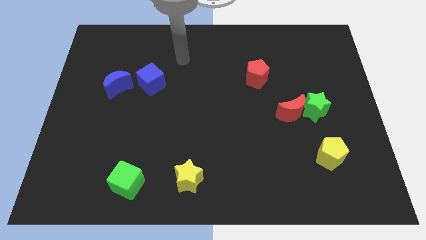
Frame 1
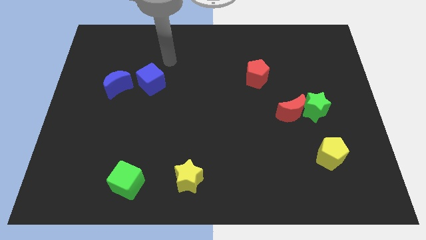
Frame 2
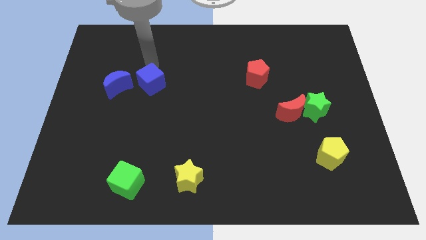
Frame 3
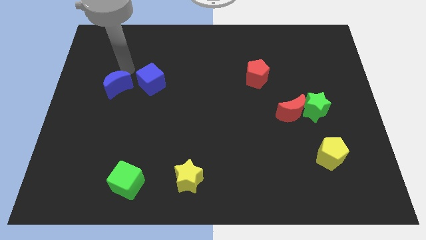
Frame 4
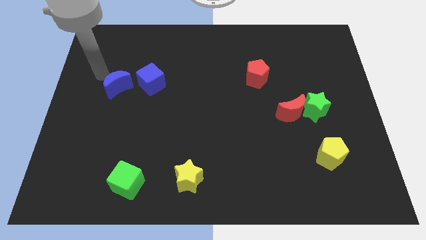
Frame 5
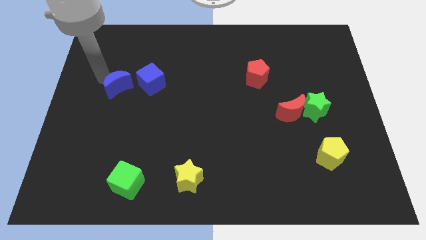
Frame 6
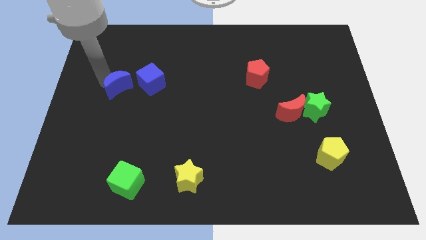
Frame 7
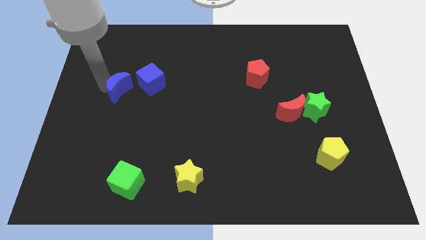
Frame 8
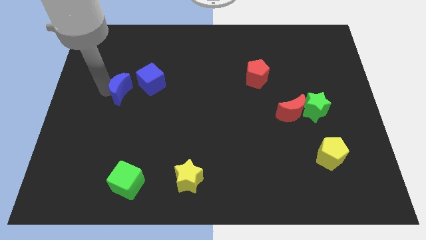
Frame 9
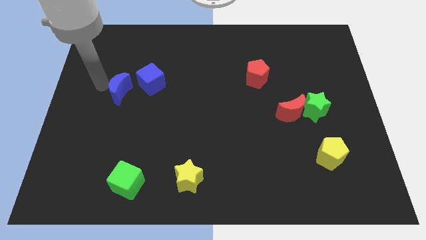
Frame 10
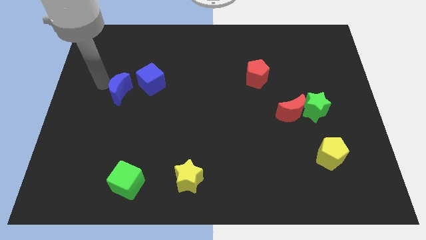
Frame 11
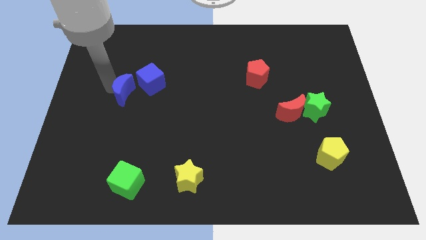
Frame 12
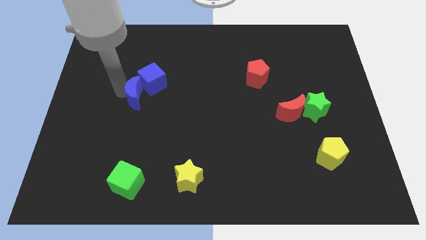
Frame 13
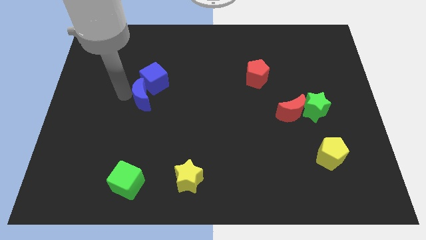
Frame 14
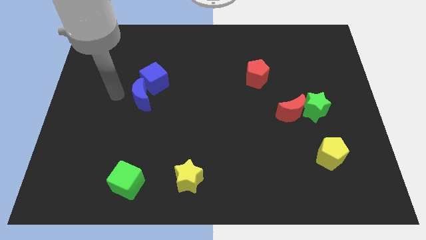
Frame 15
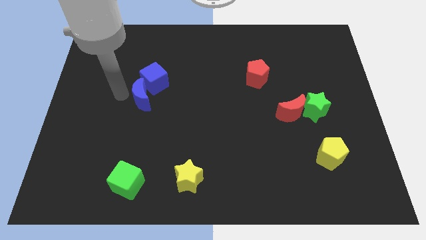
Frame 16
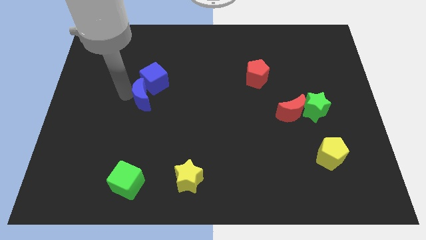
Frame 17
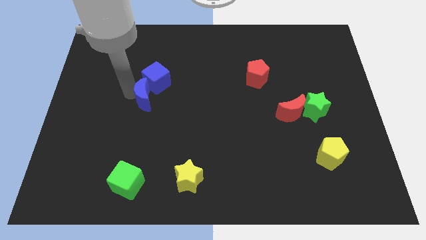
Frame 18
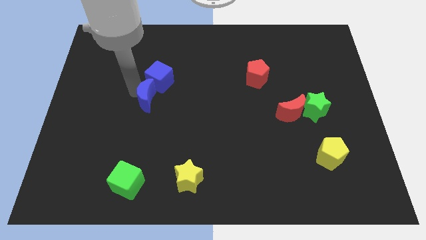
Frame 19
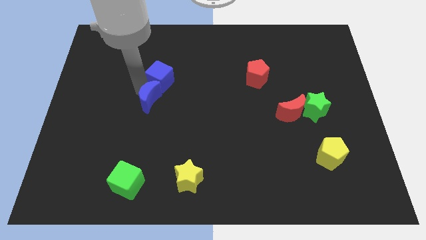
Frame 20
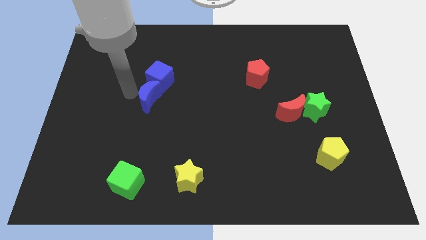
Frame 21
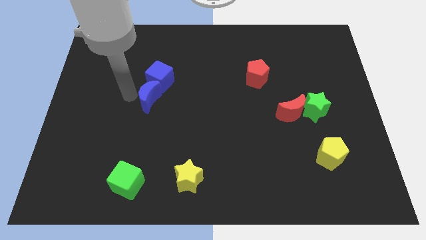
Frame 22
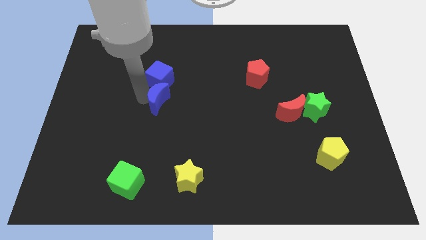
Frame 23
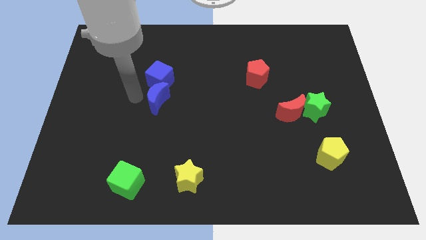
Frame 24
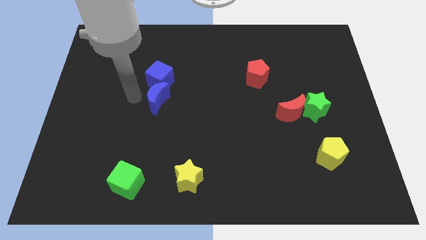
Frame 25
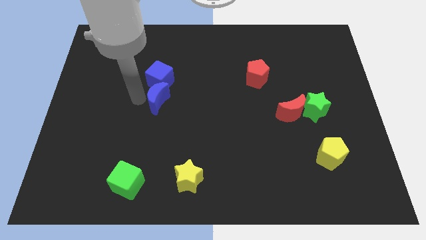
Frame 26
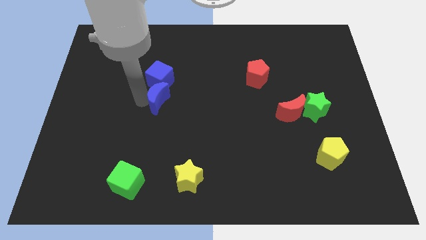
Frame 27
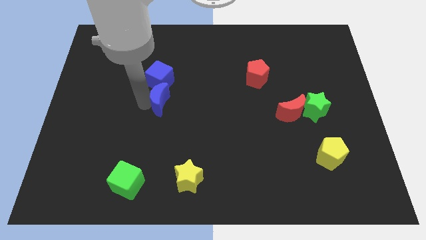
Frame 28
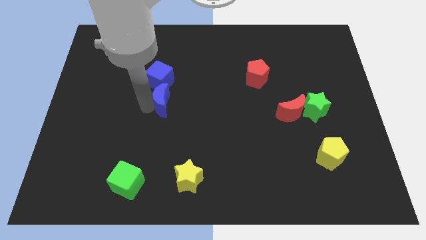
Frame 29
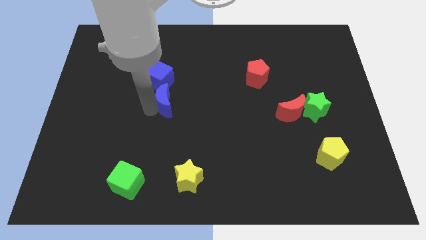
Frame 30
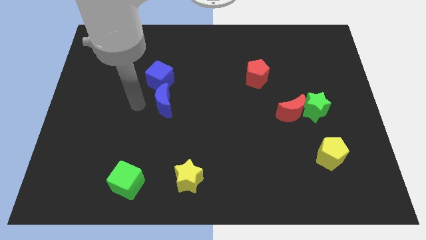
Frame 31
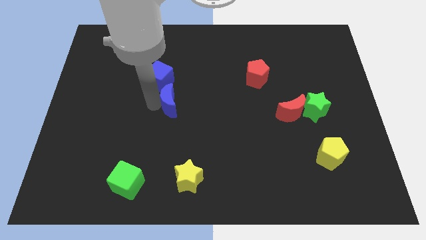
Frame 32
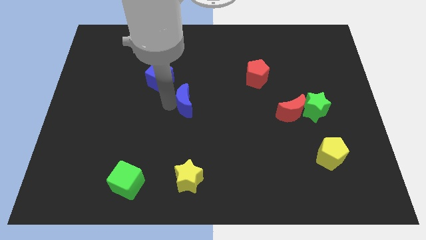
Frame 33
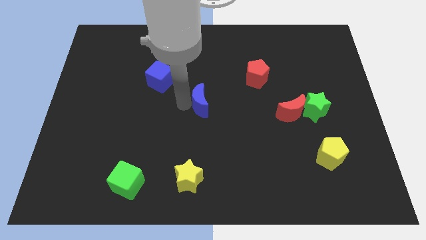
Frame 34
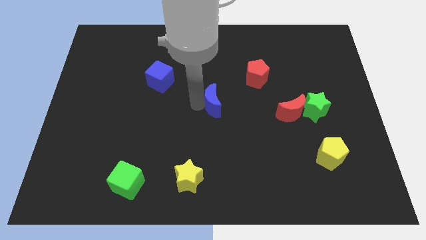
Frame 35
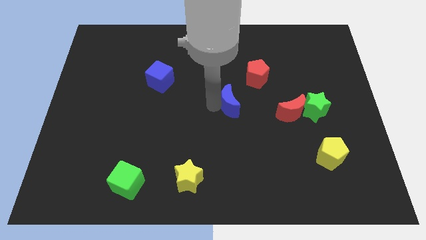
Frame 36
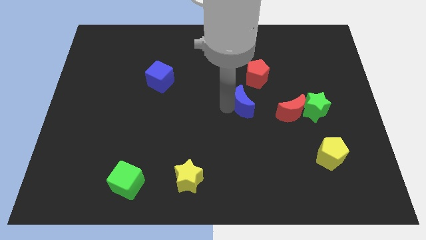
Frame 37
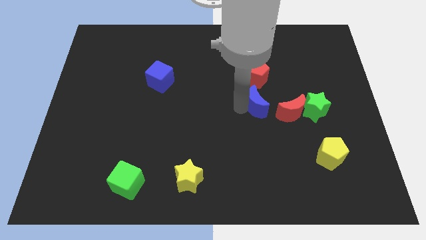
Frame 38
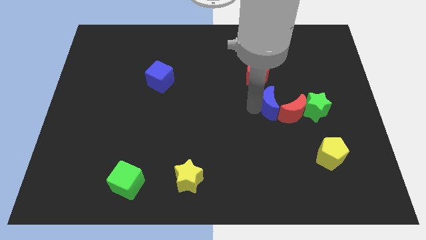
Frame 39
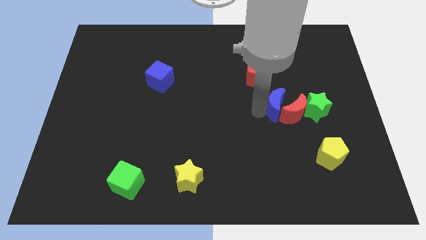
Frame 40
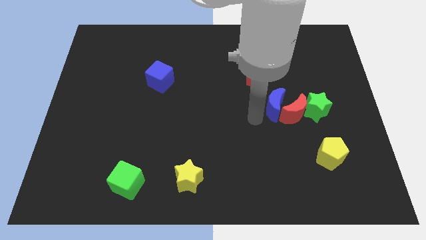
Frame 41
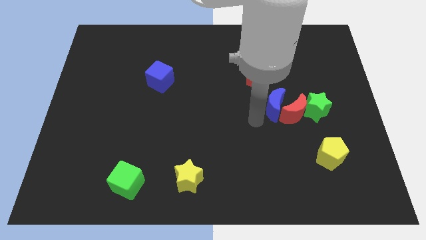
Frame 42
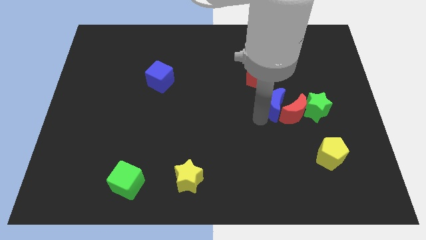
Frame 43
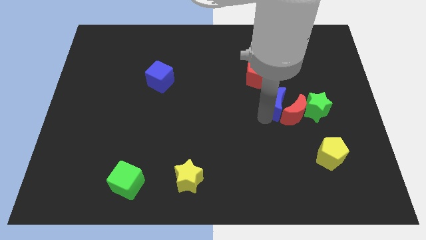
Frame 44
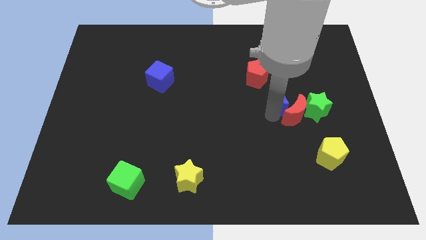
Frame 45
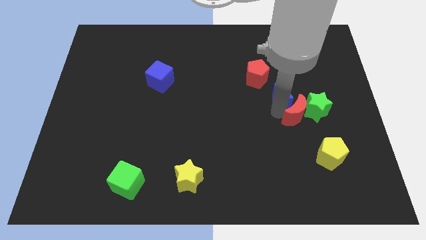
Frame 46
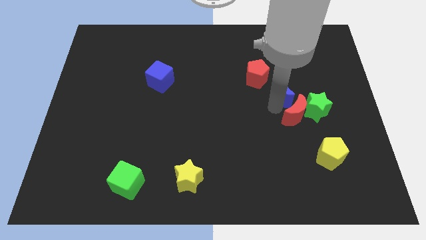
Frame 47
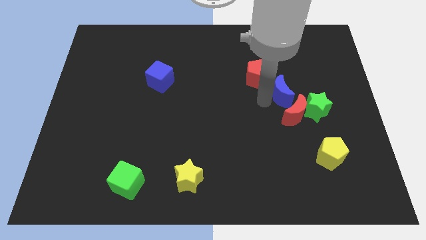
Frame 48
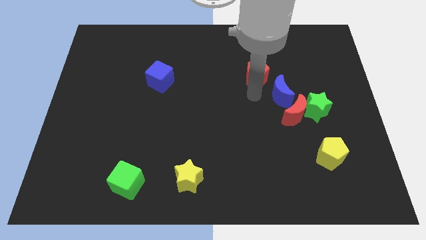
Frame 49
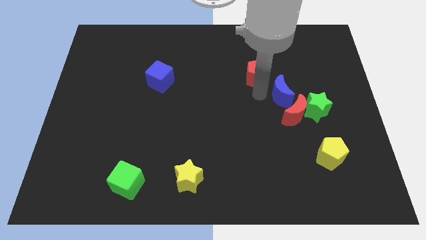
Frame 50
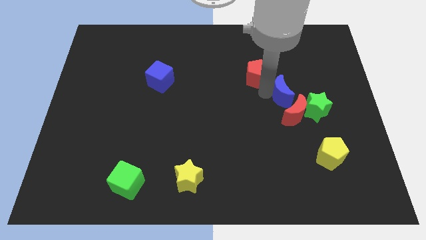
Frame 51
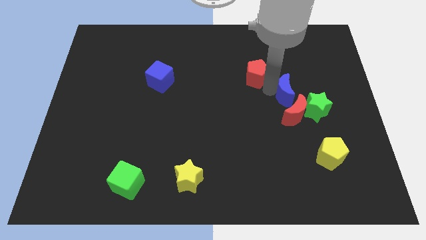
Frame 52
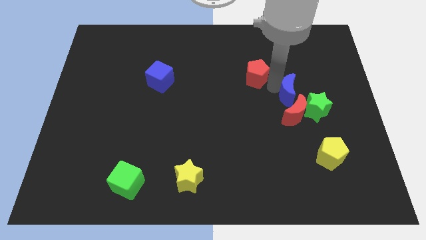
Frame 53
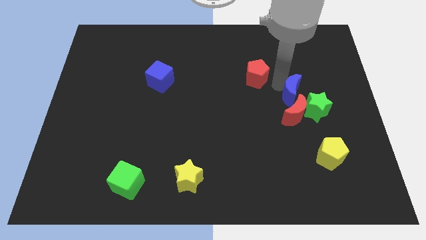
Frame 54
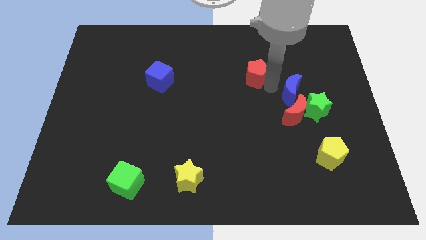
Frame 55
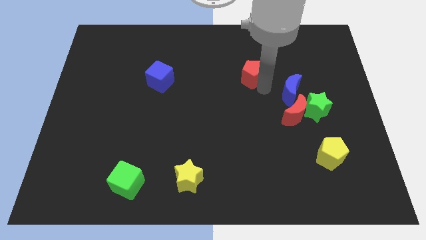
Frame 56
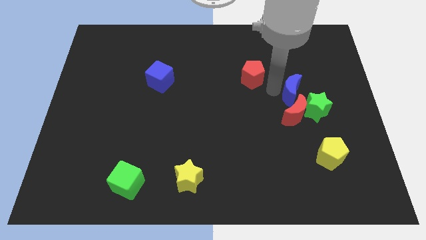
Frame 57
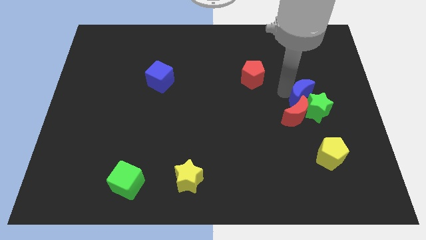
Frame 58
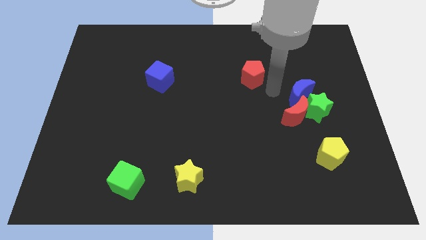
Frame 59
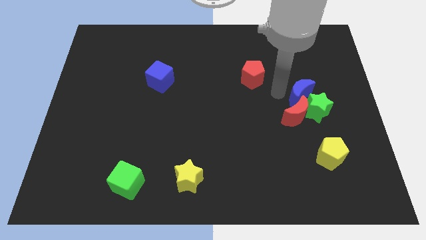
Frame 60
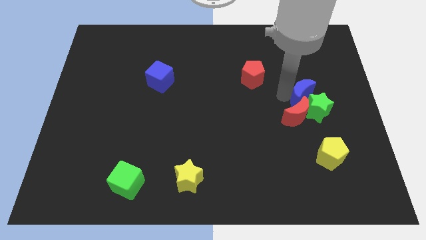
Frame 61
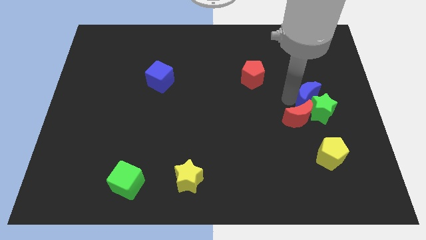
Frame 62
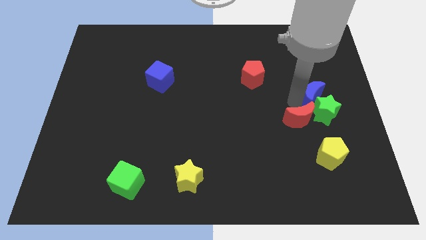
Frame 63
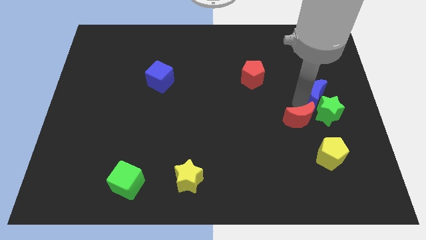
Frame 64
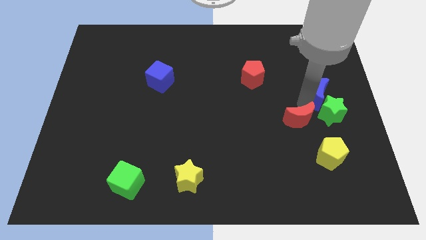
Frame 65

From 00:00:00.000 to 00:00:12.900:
push the blue moon to the right side
